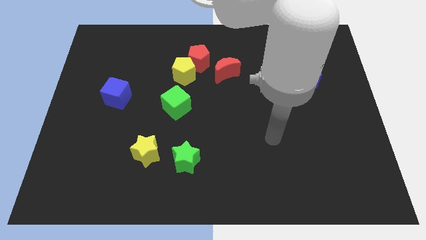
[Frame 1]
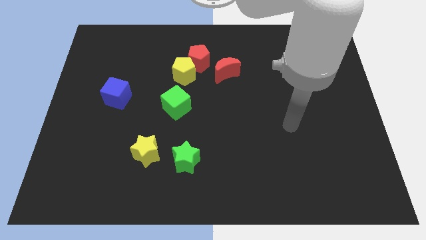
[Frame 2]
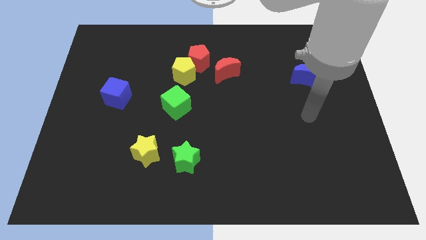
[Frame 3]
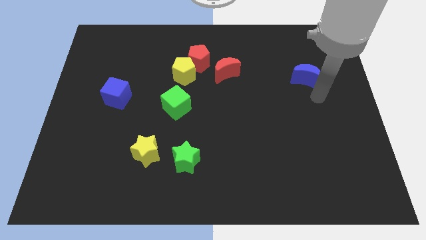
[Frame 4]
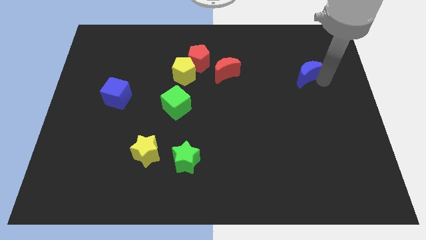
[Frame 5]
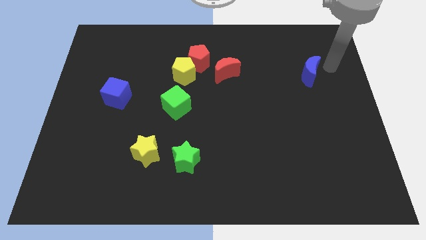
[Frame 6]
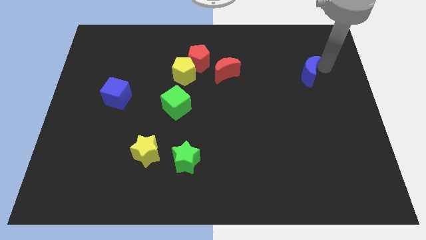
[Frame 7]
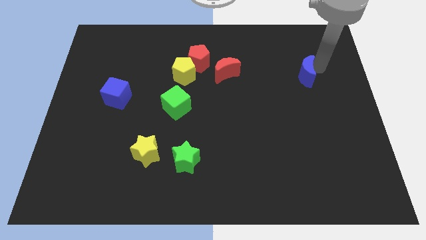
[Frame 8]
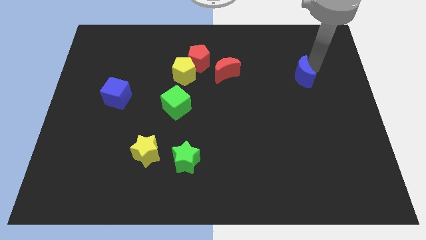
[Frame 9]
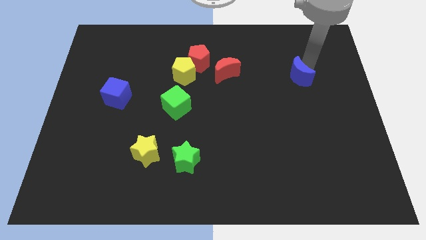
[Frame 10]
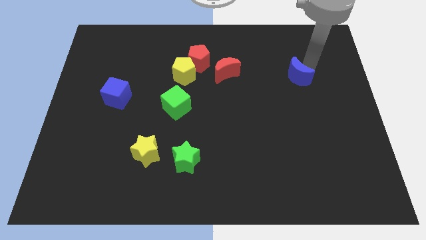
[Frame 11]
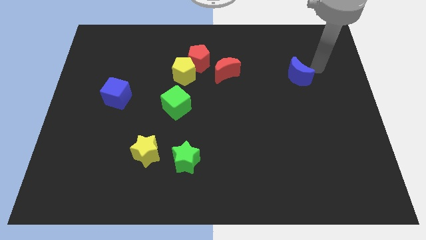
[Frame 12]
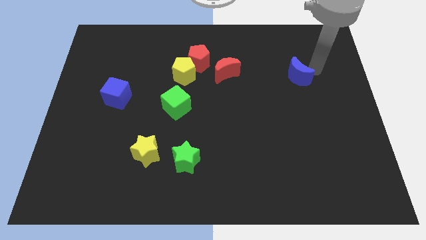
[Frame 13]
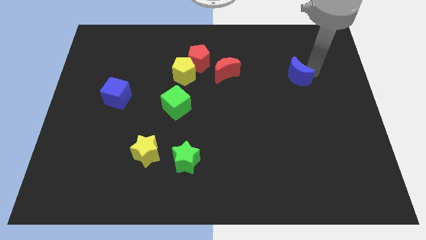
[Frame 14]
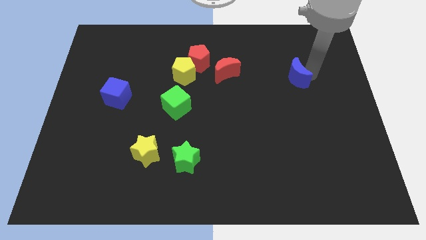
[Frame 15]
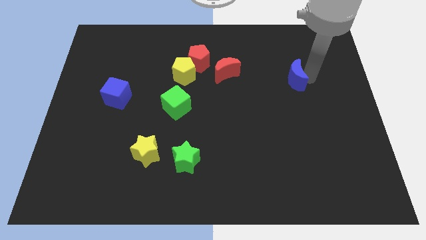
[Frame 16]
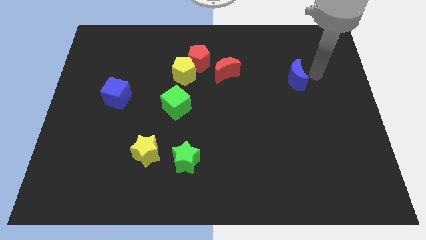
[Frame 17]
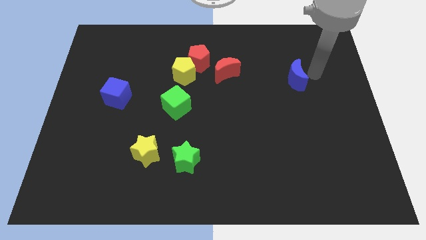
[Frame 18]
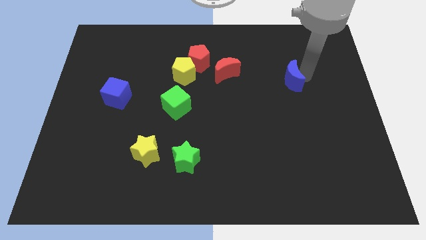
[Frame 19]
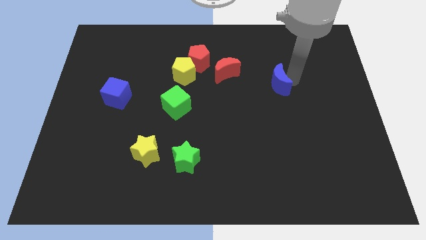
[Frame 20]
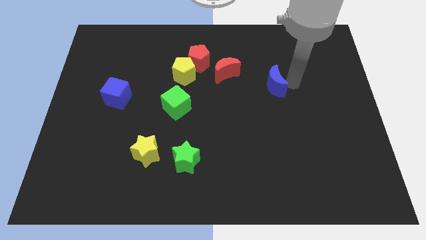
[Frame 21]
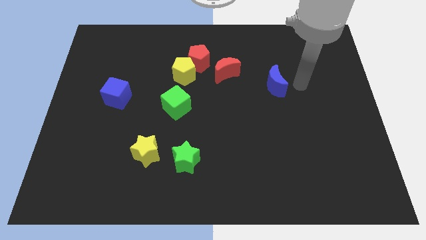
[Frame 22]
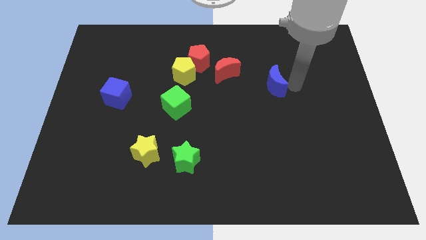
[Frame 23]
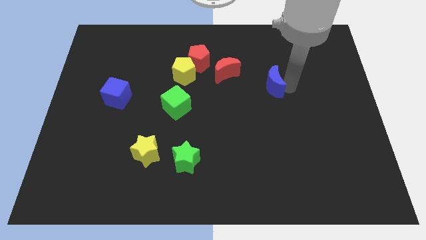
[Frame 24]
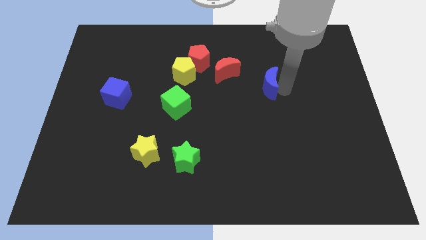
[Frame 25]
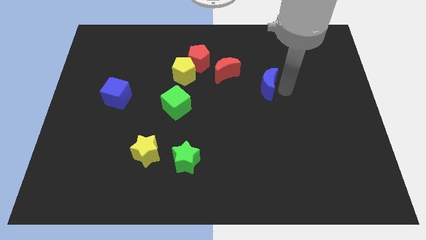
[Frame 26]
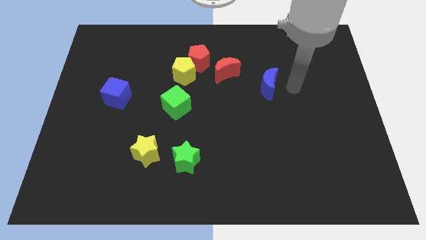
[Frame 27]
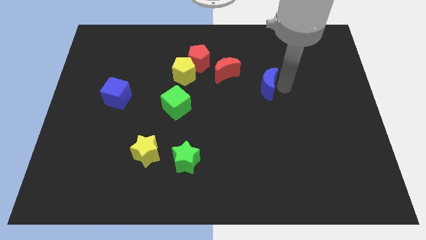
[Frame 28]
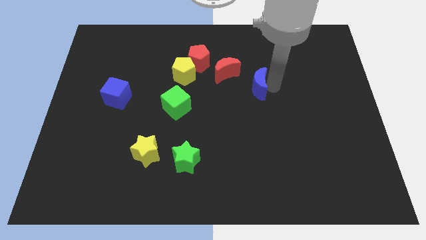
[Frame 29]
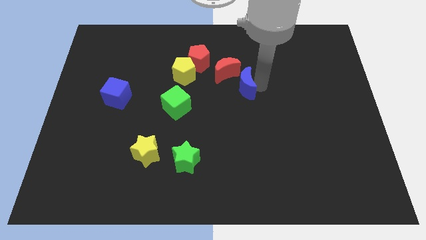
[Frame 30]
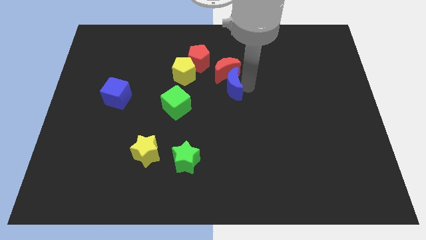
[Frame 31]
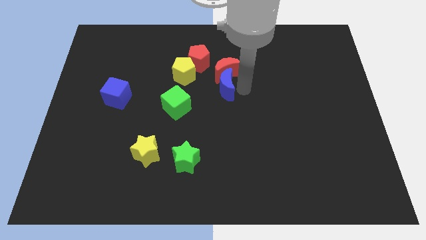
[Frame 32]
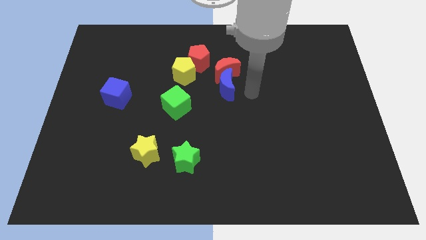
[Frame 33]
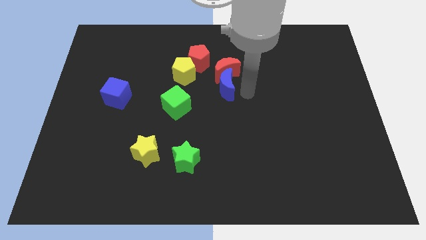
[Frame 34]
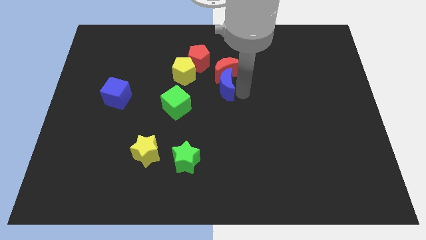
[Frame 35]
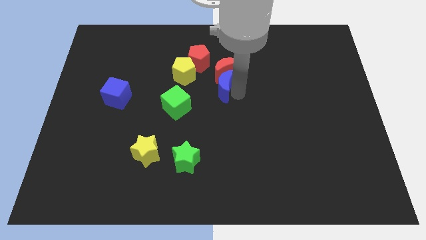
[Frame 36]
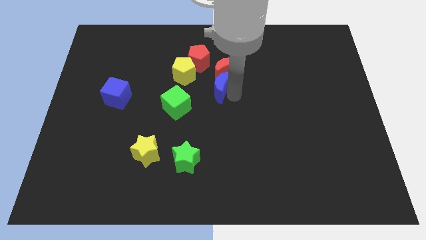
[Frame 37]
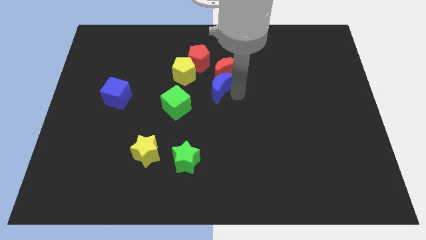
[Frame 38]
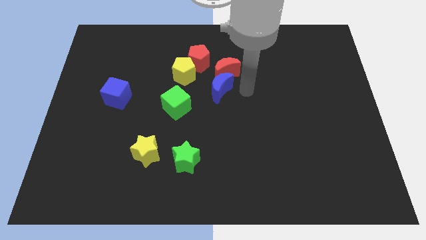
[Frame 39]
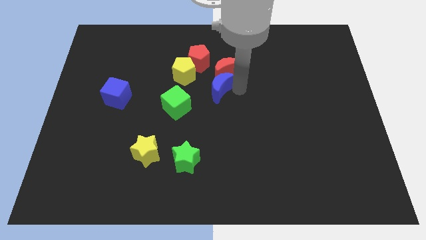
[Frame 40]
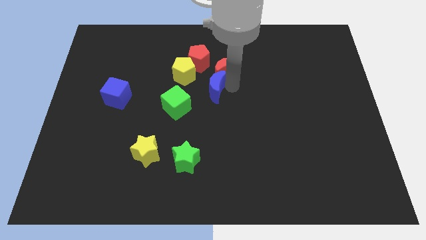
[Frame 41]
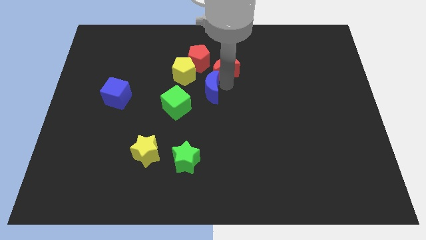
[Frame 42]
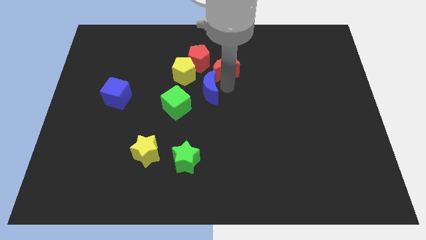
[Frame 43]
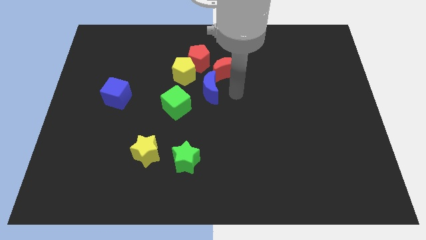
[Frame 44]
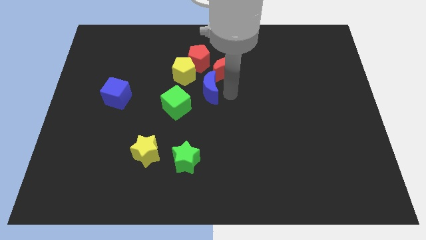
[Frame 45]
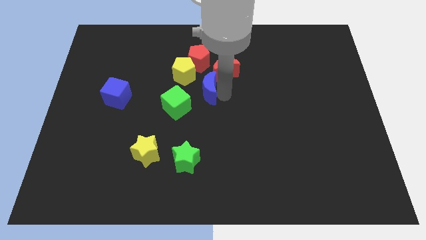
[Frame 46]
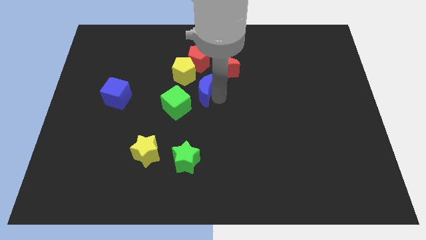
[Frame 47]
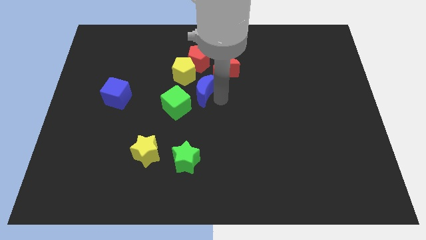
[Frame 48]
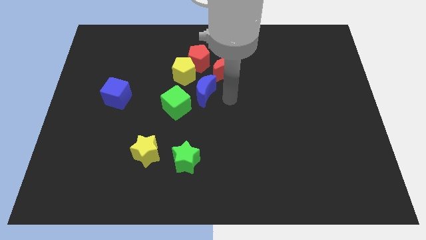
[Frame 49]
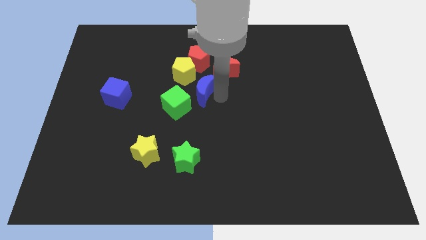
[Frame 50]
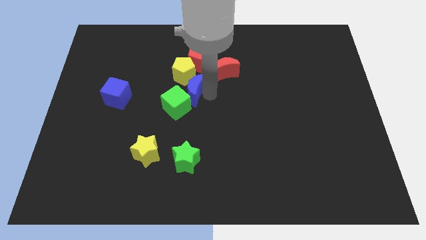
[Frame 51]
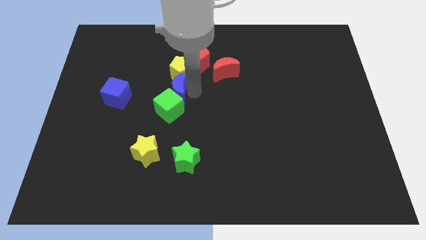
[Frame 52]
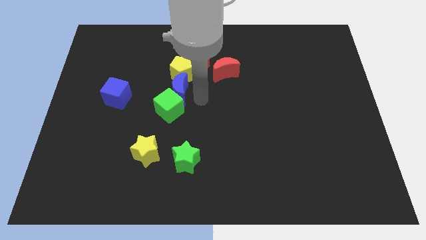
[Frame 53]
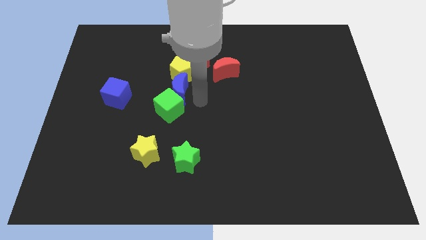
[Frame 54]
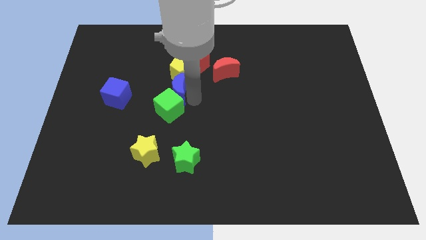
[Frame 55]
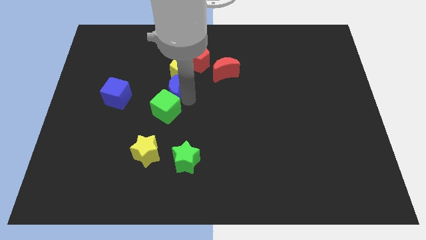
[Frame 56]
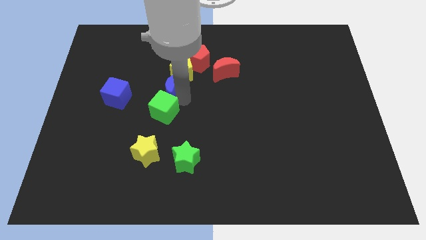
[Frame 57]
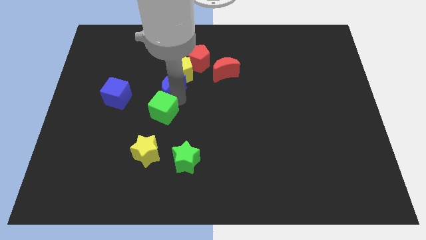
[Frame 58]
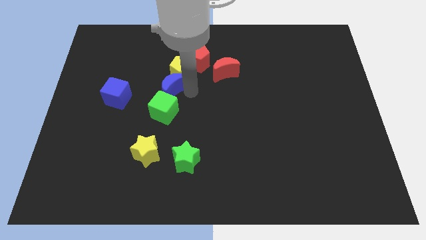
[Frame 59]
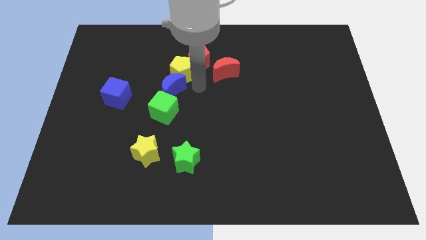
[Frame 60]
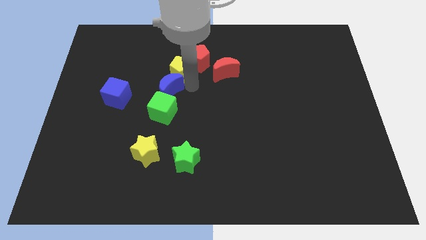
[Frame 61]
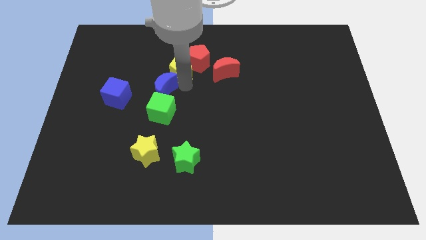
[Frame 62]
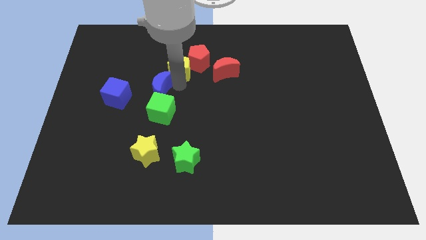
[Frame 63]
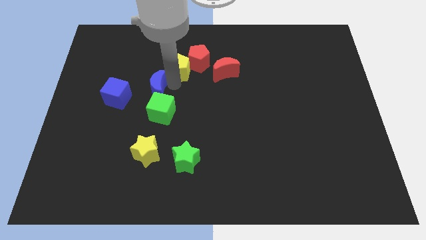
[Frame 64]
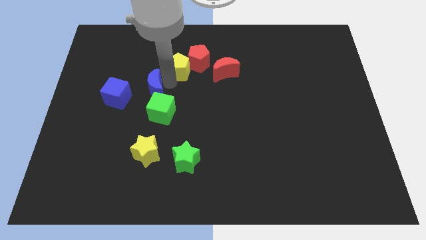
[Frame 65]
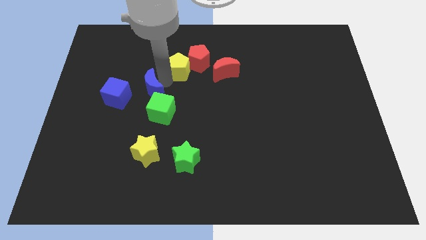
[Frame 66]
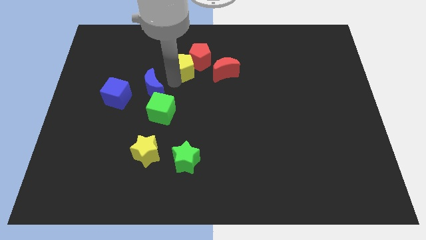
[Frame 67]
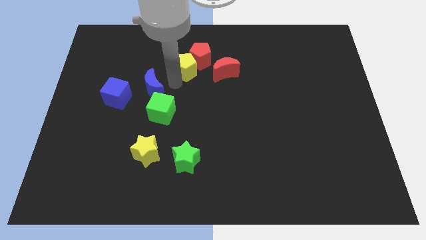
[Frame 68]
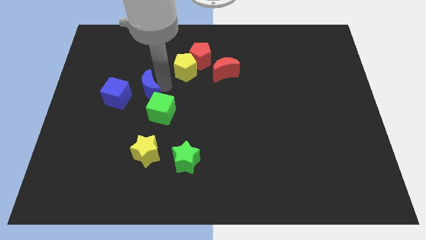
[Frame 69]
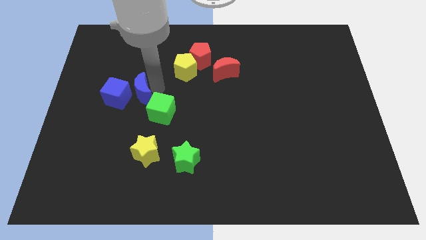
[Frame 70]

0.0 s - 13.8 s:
put the blue moon towards the blue cube
